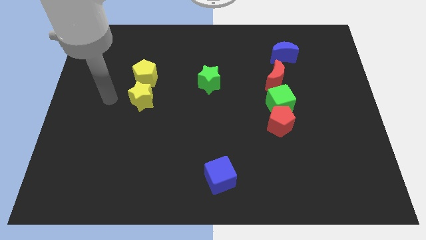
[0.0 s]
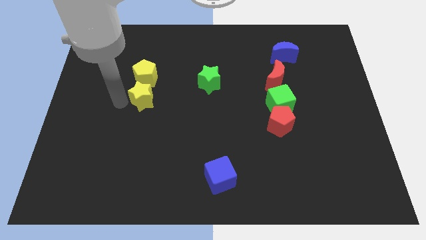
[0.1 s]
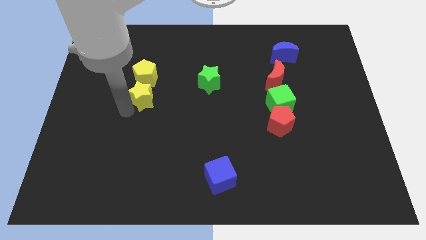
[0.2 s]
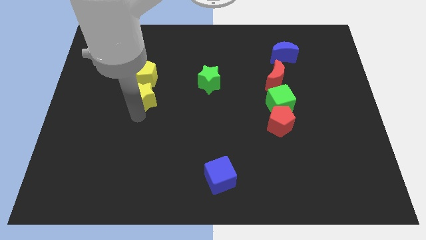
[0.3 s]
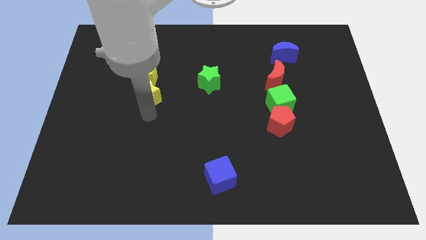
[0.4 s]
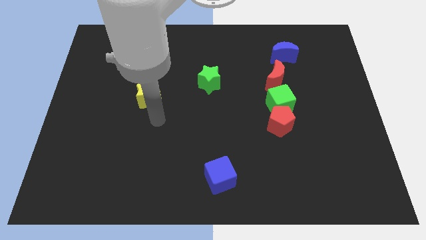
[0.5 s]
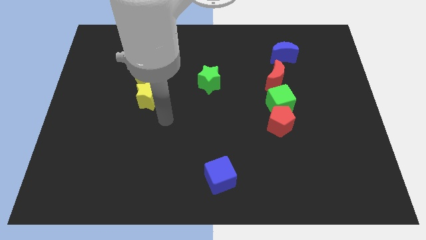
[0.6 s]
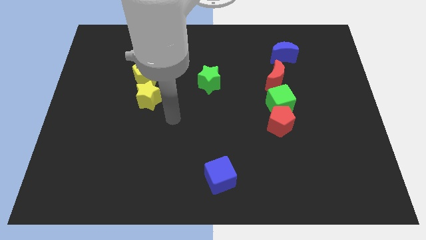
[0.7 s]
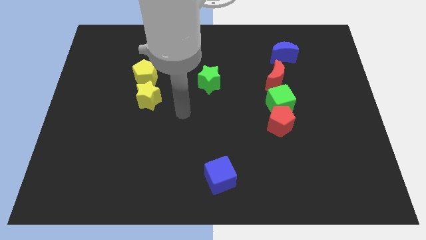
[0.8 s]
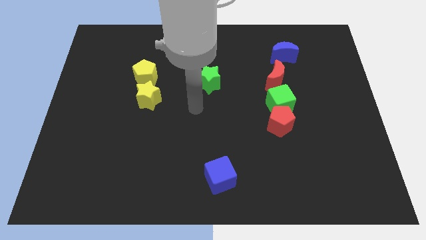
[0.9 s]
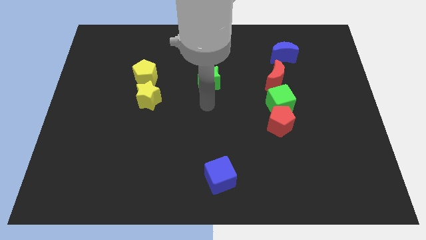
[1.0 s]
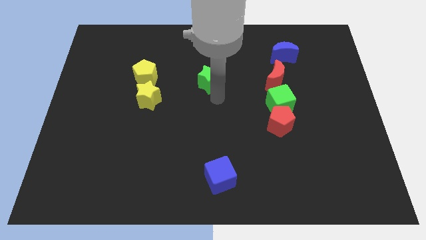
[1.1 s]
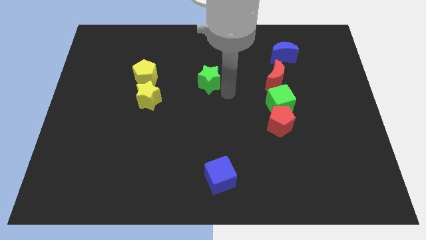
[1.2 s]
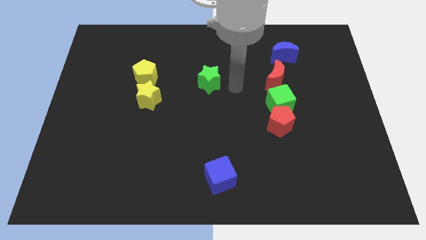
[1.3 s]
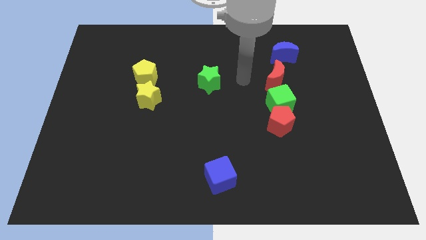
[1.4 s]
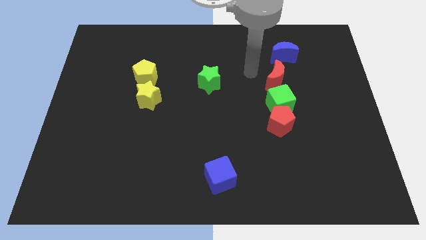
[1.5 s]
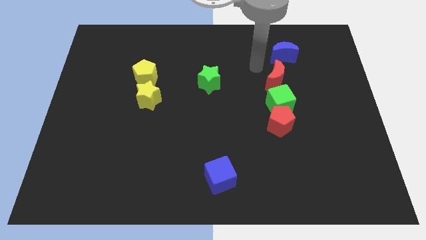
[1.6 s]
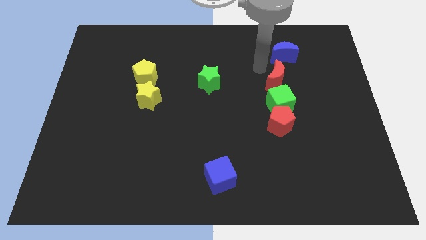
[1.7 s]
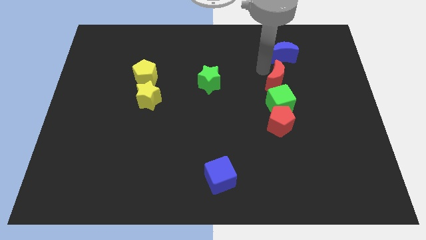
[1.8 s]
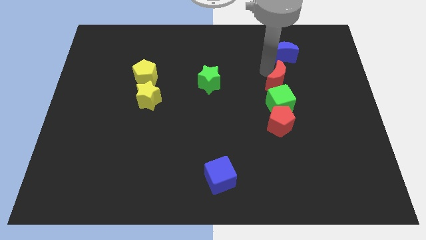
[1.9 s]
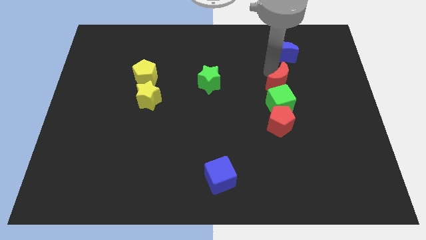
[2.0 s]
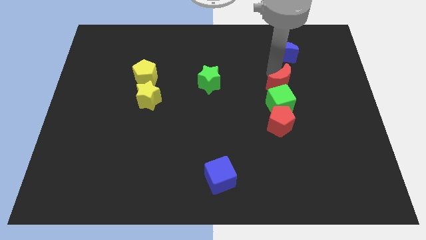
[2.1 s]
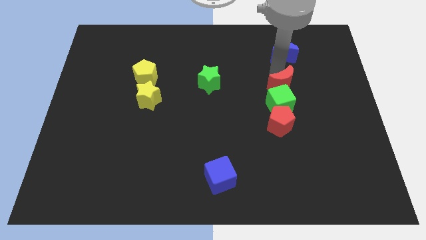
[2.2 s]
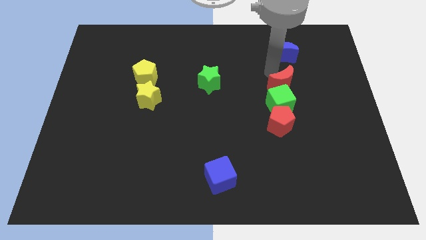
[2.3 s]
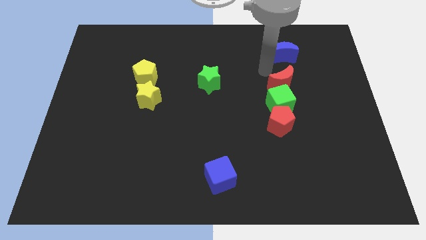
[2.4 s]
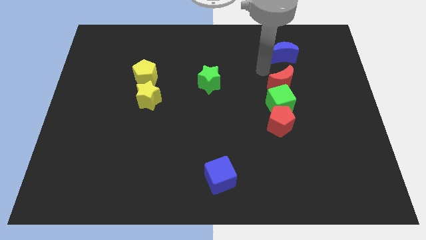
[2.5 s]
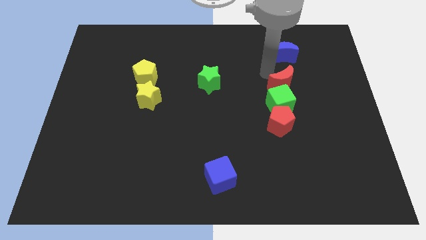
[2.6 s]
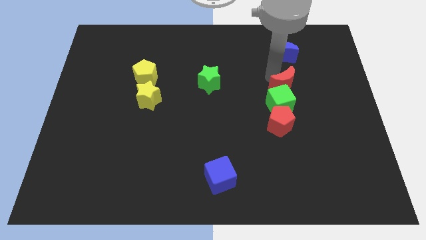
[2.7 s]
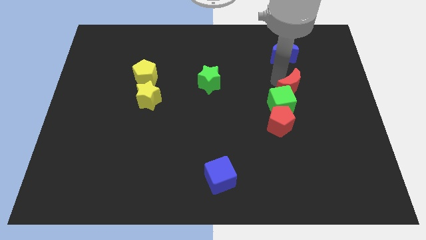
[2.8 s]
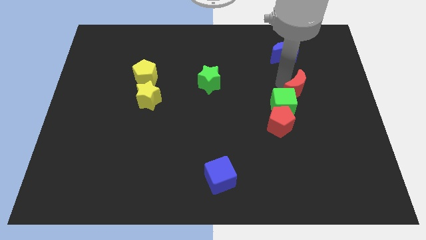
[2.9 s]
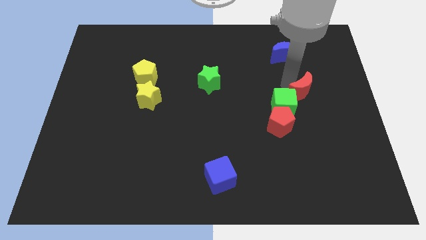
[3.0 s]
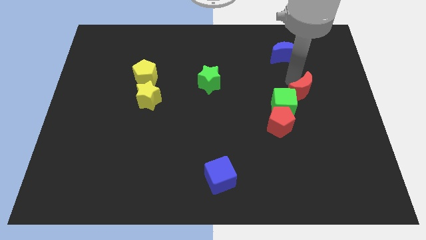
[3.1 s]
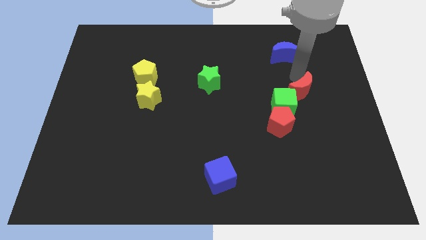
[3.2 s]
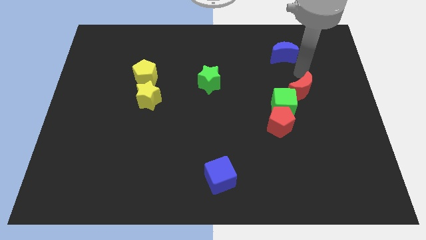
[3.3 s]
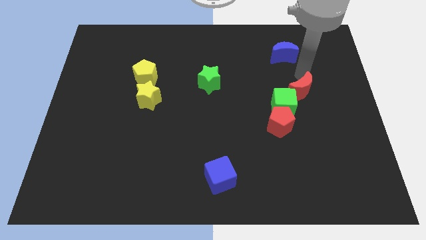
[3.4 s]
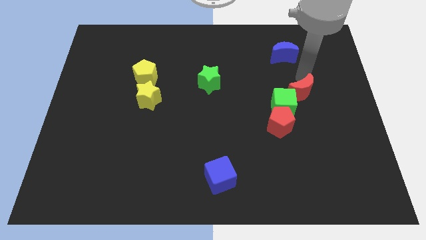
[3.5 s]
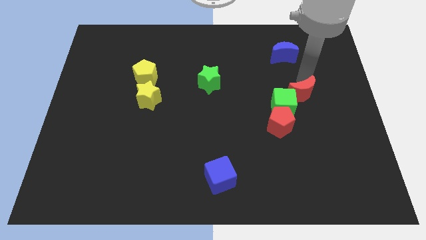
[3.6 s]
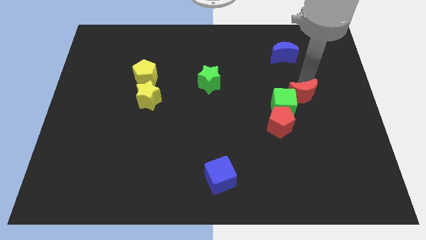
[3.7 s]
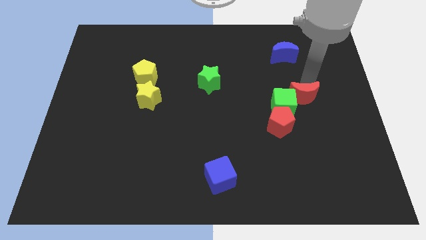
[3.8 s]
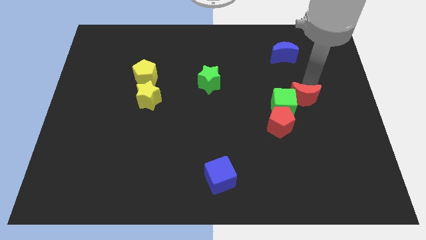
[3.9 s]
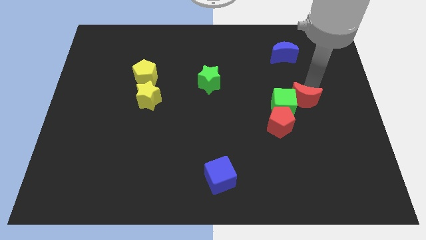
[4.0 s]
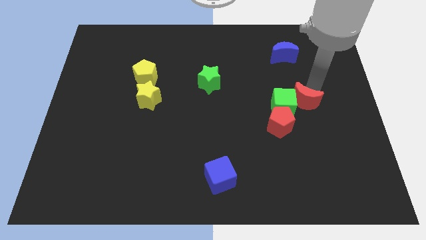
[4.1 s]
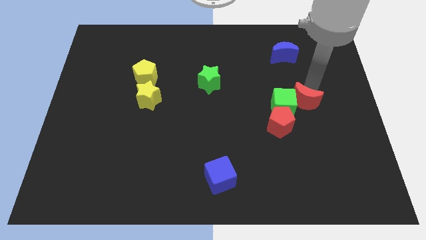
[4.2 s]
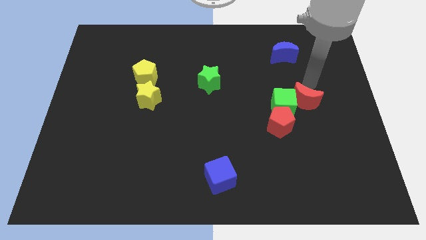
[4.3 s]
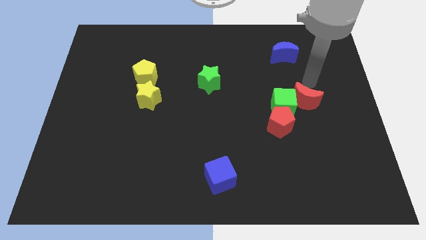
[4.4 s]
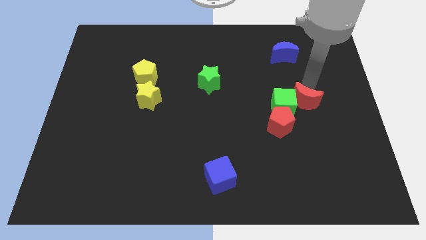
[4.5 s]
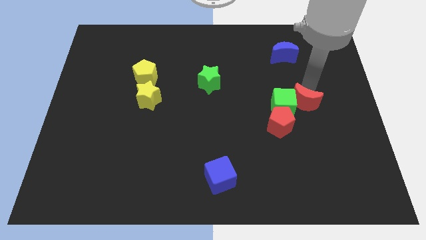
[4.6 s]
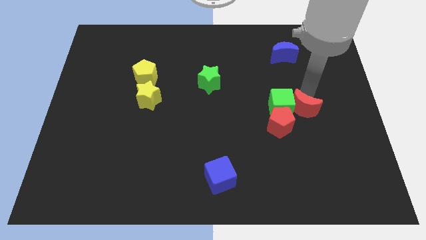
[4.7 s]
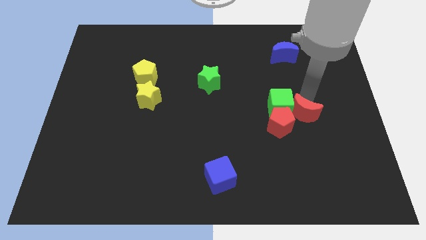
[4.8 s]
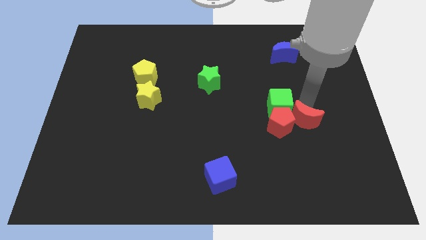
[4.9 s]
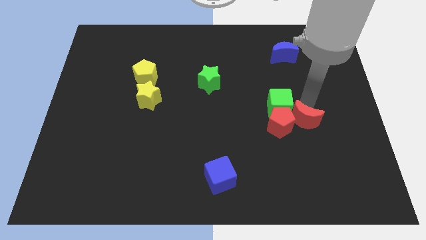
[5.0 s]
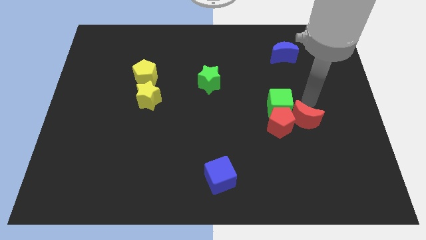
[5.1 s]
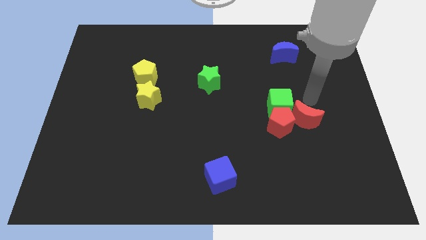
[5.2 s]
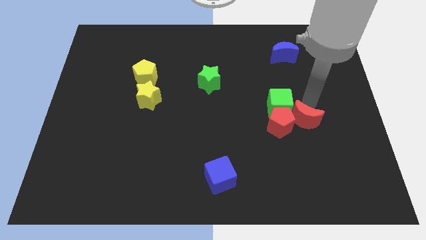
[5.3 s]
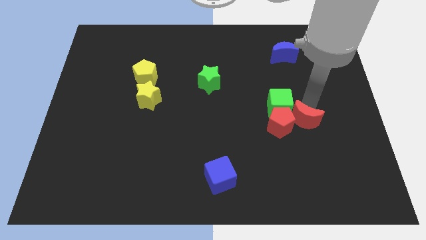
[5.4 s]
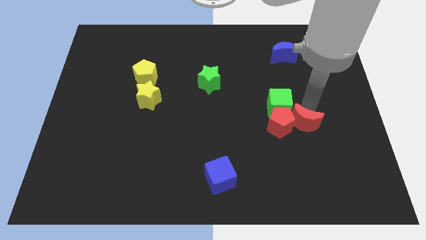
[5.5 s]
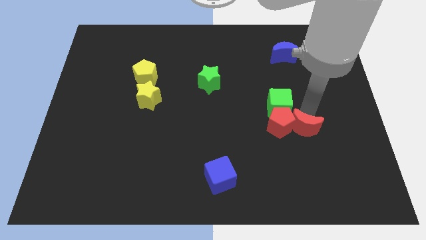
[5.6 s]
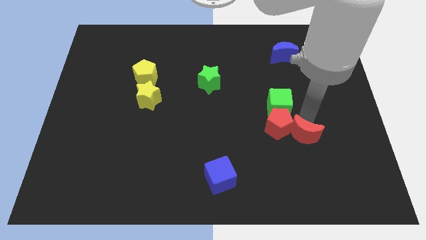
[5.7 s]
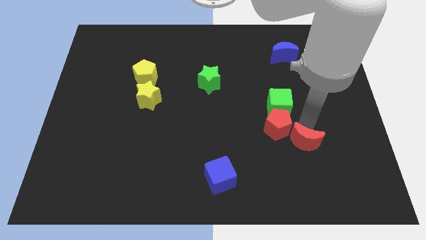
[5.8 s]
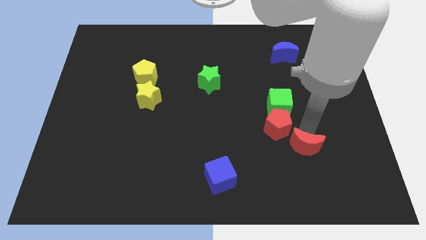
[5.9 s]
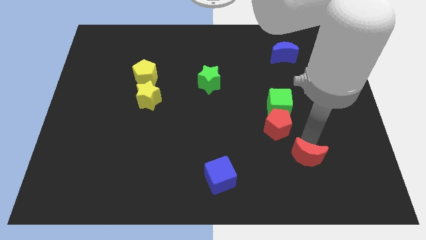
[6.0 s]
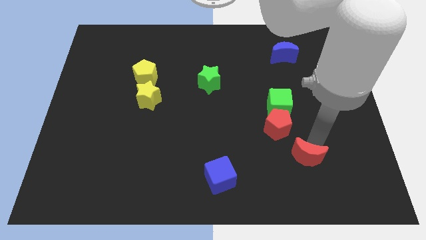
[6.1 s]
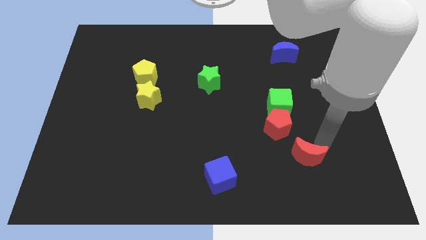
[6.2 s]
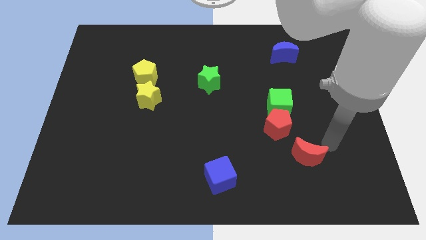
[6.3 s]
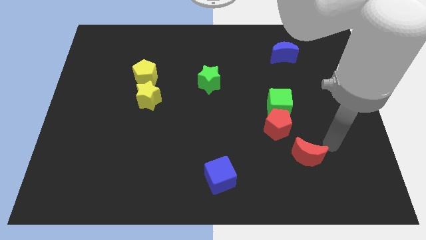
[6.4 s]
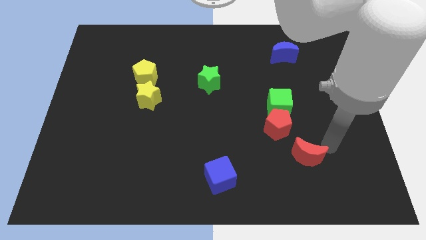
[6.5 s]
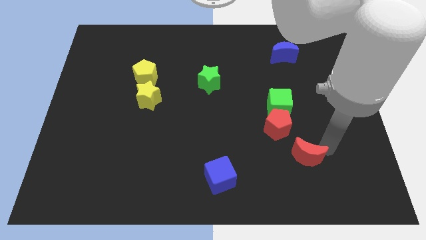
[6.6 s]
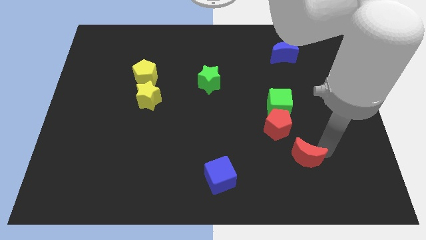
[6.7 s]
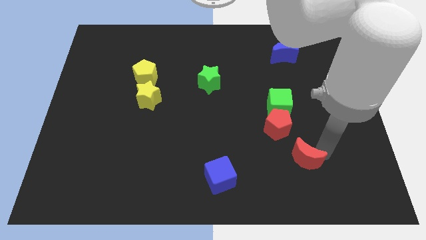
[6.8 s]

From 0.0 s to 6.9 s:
slide the red moon below the red pentagon
